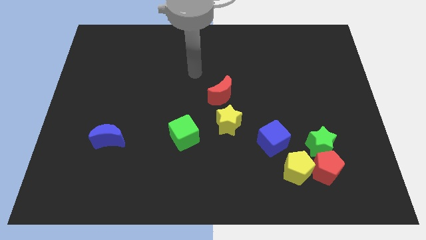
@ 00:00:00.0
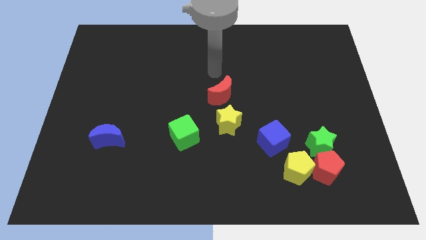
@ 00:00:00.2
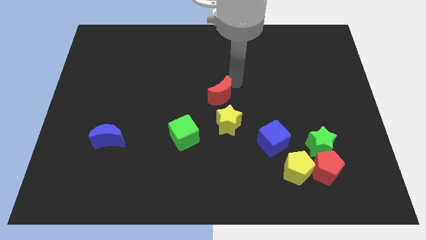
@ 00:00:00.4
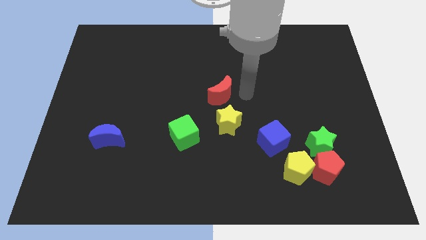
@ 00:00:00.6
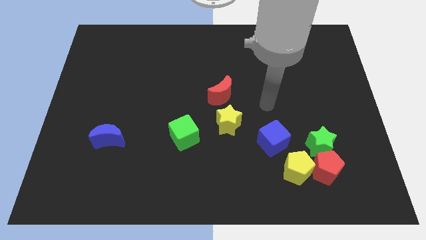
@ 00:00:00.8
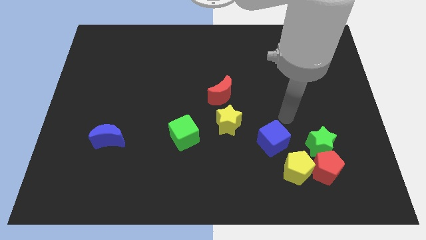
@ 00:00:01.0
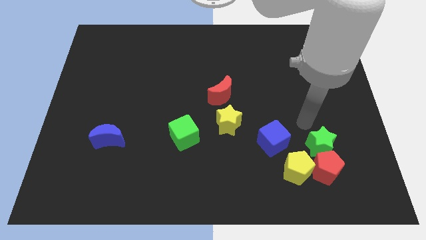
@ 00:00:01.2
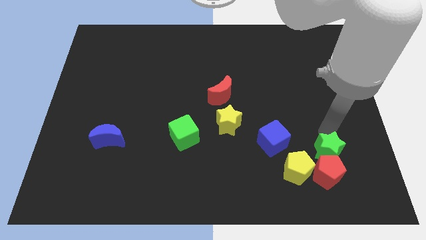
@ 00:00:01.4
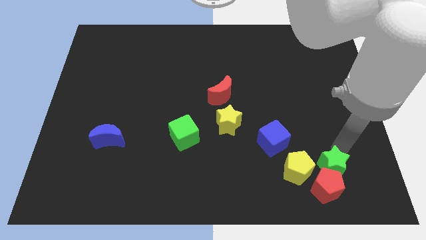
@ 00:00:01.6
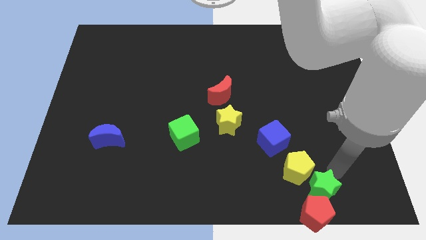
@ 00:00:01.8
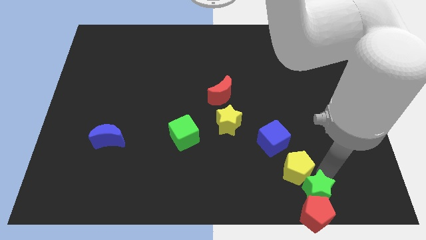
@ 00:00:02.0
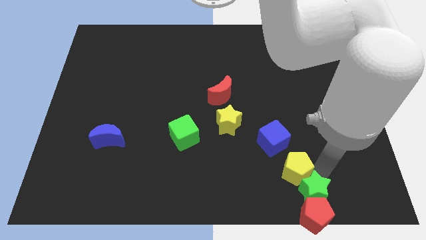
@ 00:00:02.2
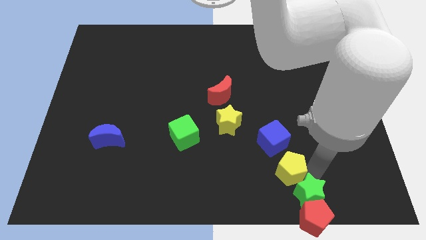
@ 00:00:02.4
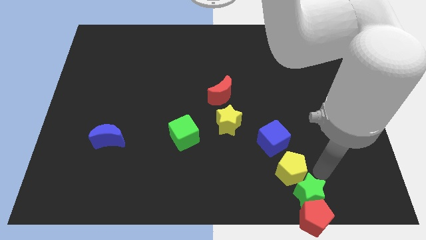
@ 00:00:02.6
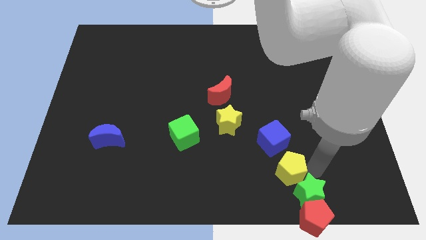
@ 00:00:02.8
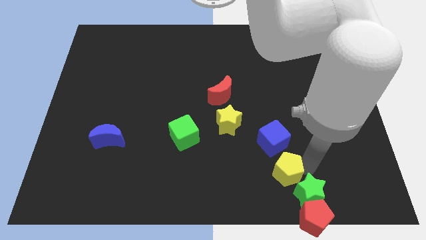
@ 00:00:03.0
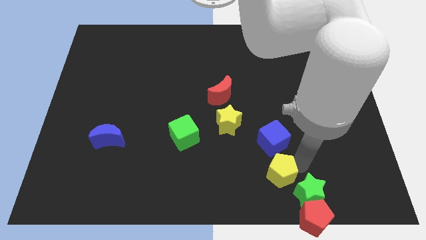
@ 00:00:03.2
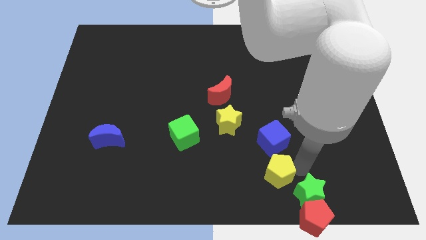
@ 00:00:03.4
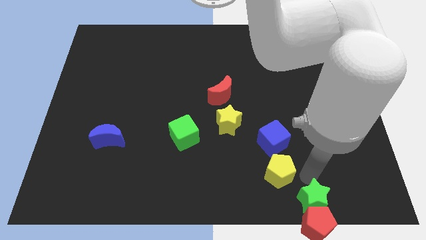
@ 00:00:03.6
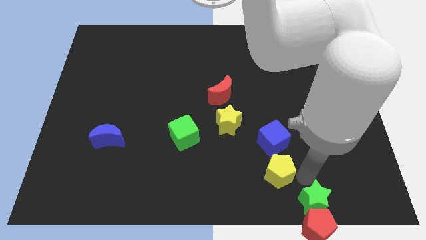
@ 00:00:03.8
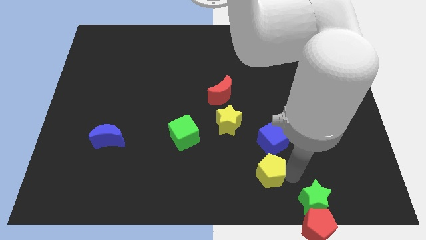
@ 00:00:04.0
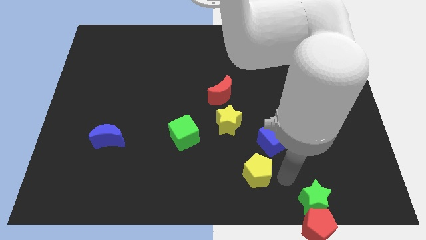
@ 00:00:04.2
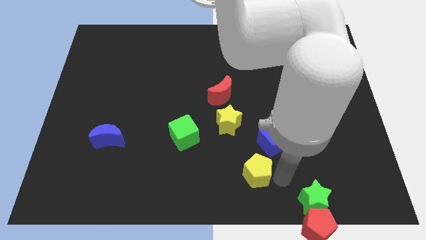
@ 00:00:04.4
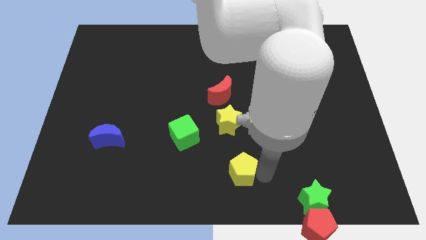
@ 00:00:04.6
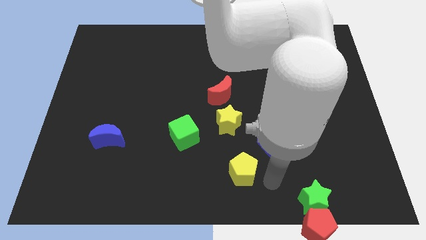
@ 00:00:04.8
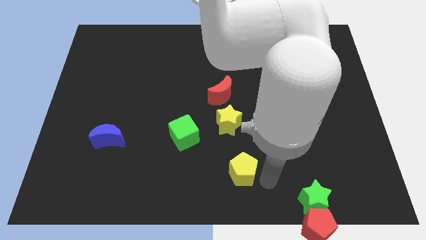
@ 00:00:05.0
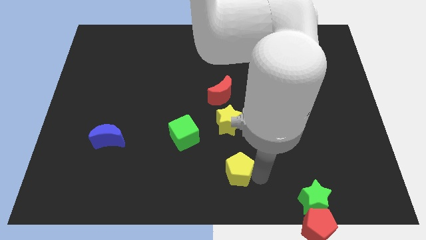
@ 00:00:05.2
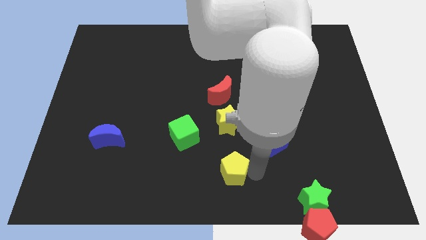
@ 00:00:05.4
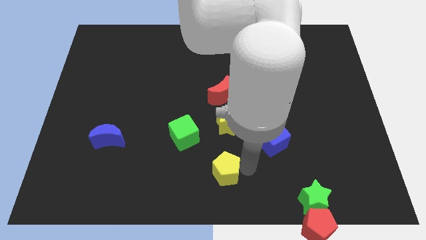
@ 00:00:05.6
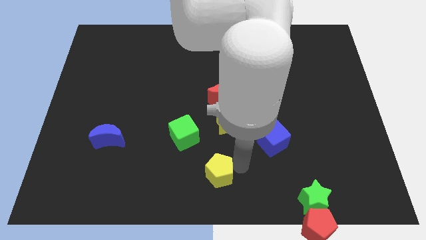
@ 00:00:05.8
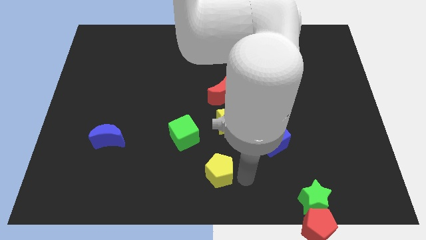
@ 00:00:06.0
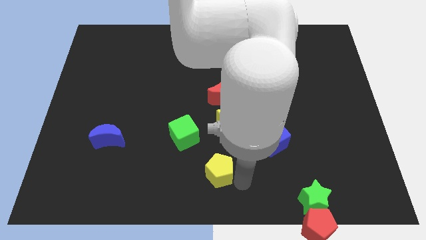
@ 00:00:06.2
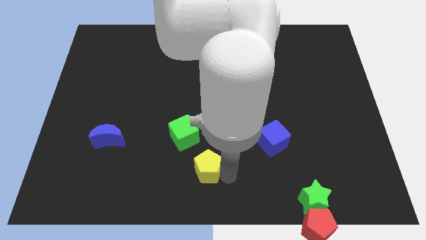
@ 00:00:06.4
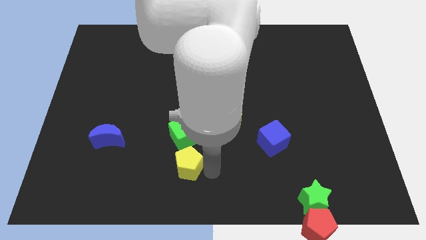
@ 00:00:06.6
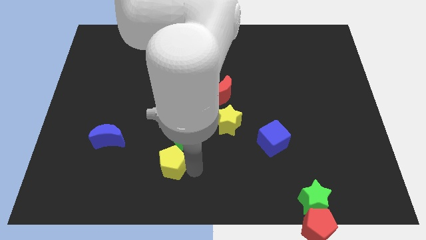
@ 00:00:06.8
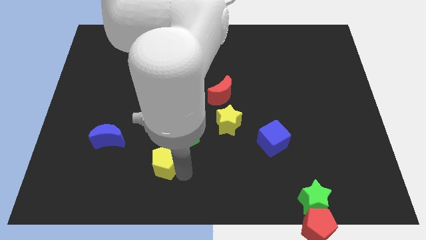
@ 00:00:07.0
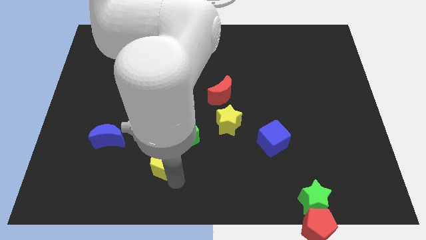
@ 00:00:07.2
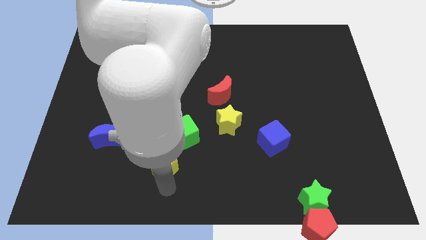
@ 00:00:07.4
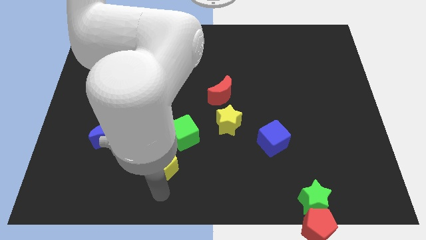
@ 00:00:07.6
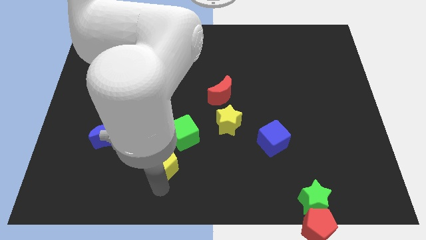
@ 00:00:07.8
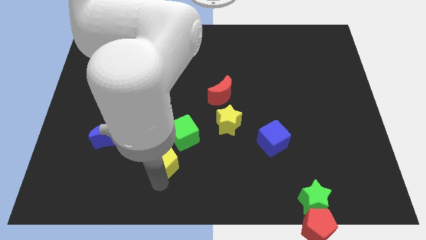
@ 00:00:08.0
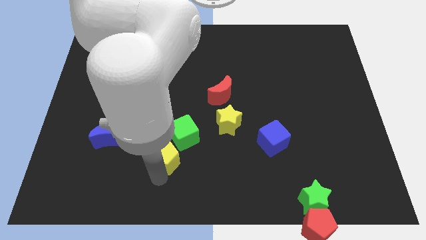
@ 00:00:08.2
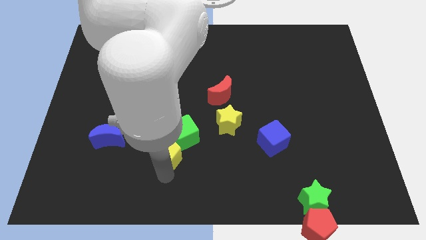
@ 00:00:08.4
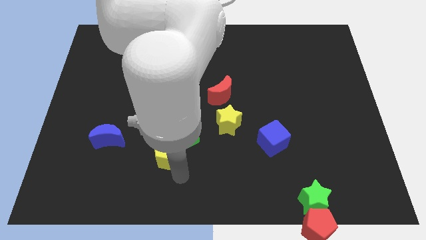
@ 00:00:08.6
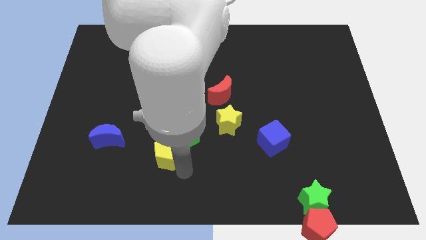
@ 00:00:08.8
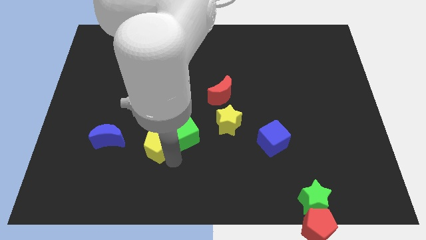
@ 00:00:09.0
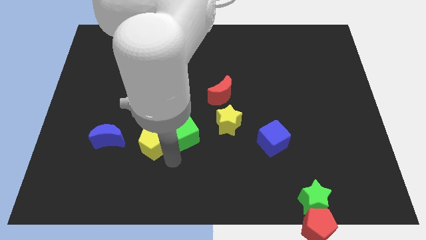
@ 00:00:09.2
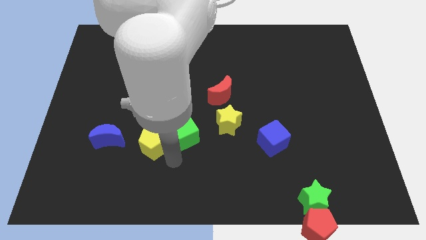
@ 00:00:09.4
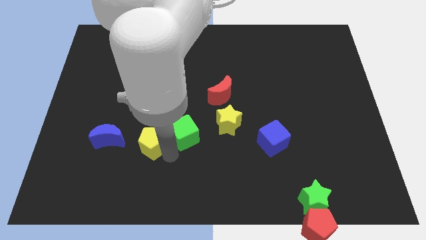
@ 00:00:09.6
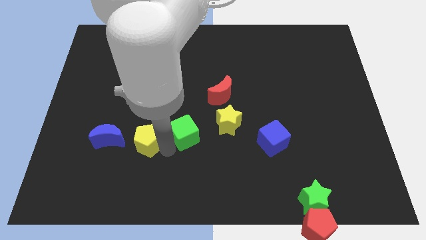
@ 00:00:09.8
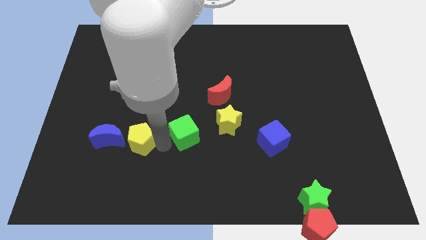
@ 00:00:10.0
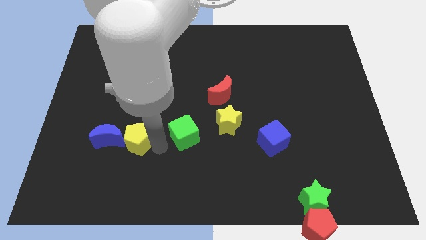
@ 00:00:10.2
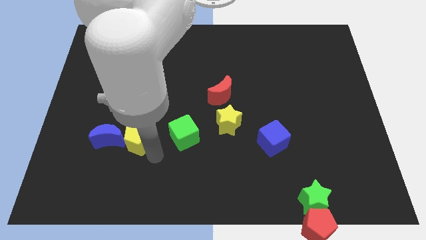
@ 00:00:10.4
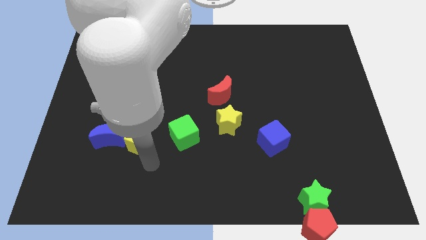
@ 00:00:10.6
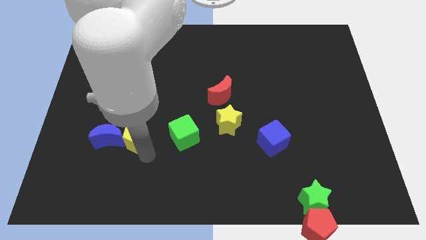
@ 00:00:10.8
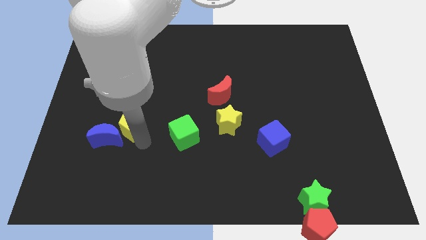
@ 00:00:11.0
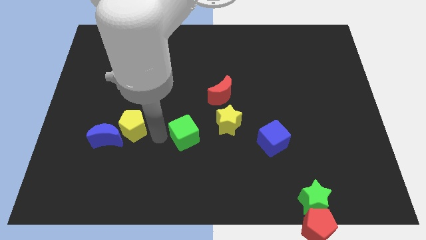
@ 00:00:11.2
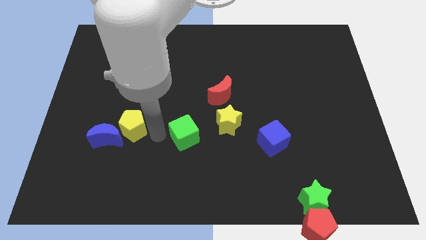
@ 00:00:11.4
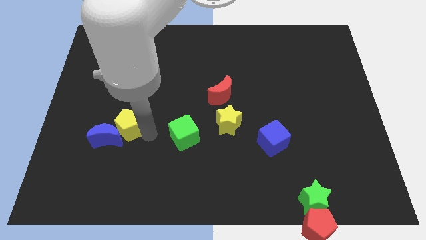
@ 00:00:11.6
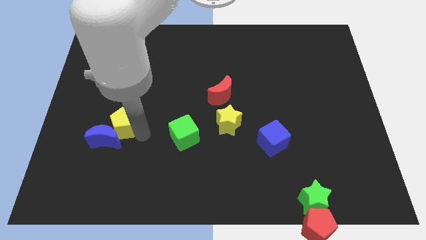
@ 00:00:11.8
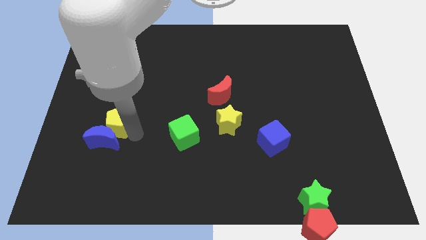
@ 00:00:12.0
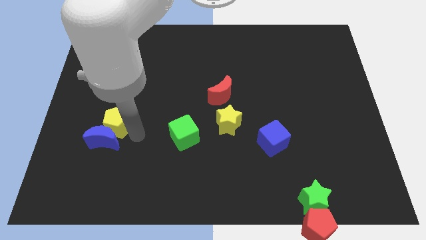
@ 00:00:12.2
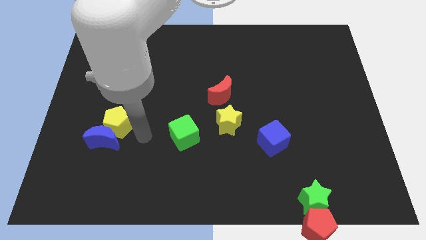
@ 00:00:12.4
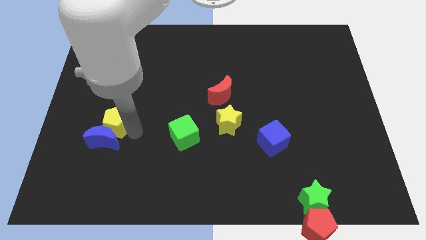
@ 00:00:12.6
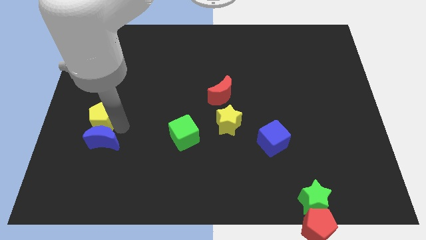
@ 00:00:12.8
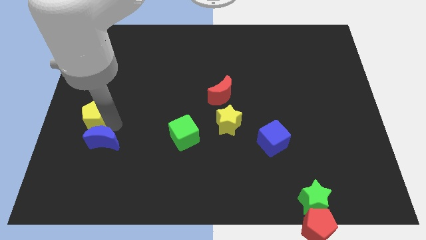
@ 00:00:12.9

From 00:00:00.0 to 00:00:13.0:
slide the yellow pentagon to the left side
